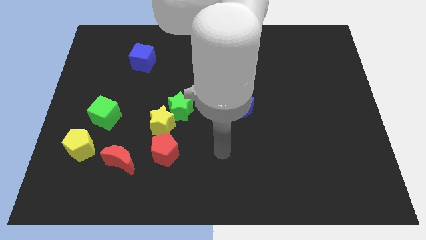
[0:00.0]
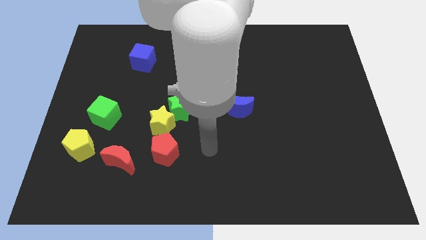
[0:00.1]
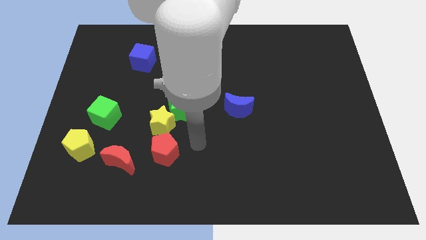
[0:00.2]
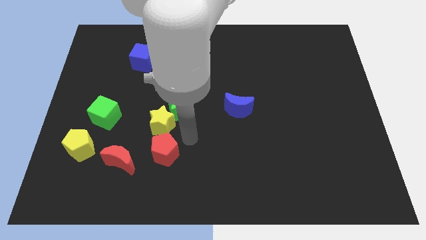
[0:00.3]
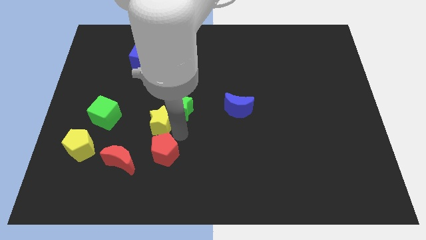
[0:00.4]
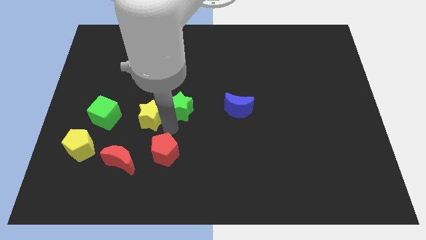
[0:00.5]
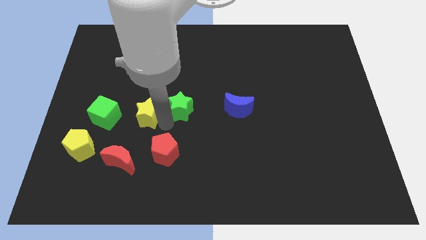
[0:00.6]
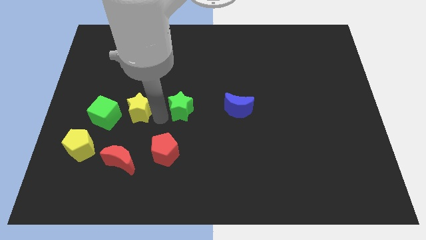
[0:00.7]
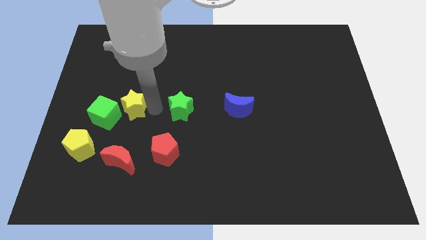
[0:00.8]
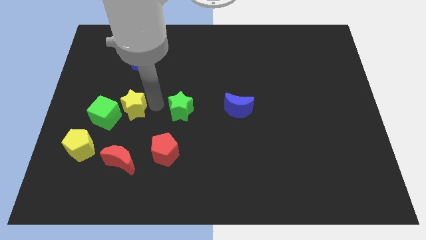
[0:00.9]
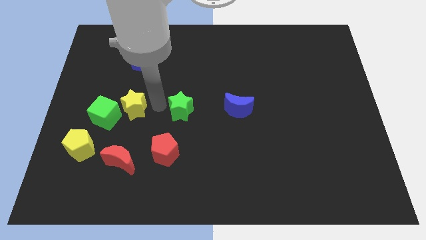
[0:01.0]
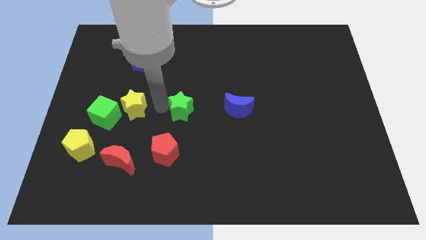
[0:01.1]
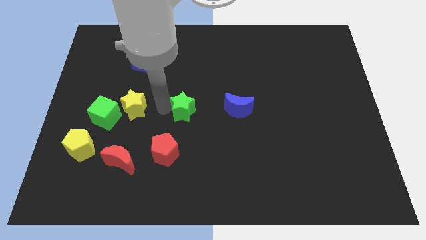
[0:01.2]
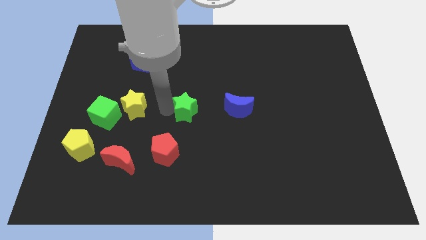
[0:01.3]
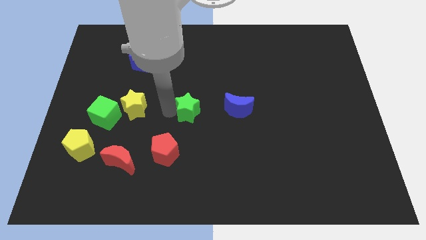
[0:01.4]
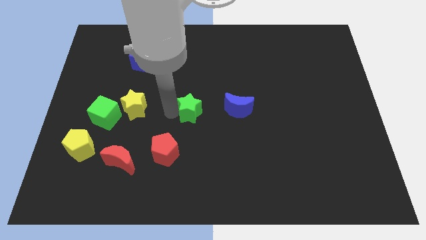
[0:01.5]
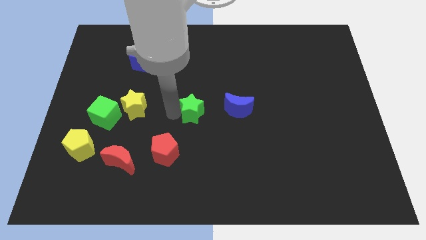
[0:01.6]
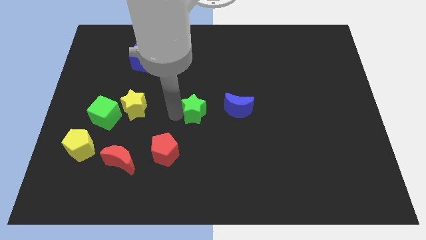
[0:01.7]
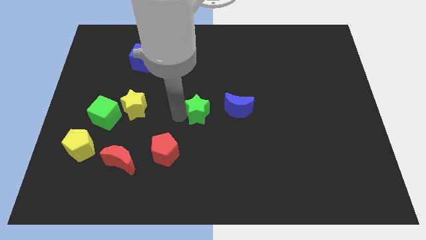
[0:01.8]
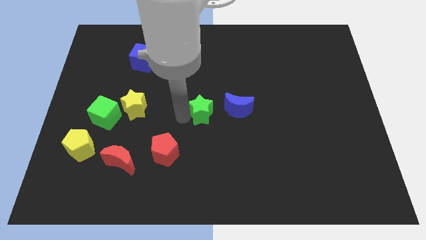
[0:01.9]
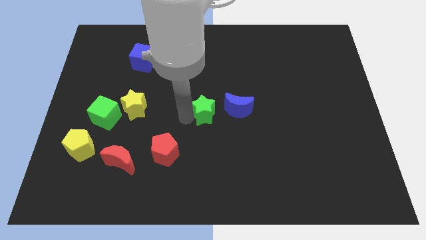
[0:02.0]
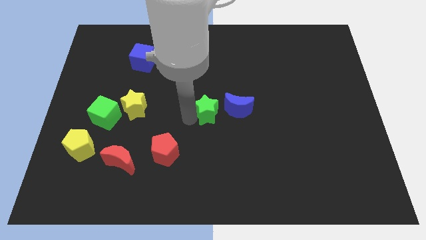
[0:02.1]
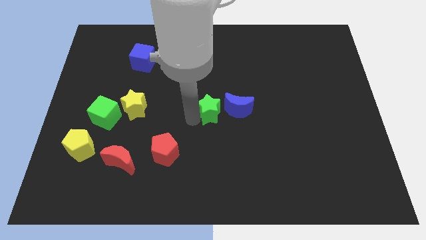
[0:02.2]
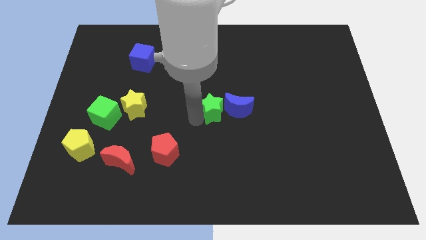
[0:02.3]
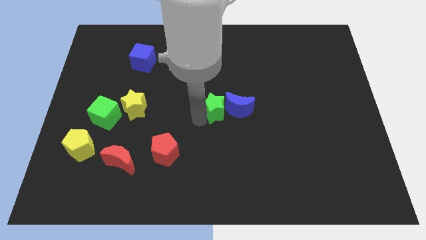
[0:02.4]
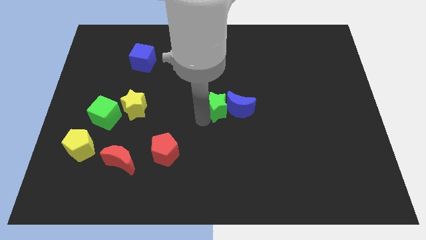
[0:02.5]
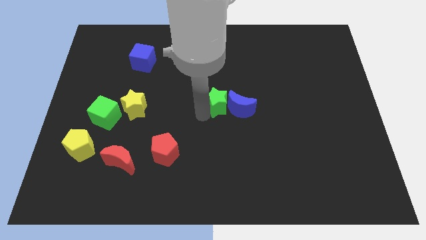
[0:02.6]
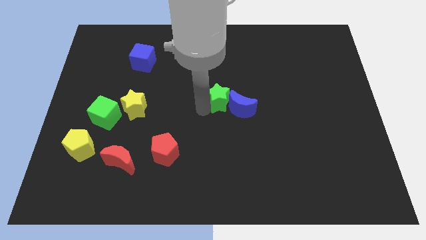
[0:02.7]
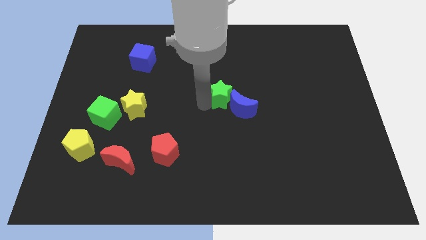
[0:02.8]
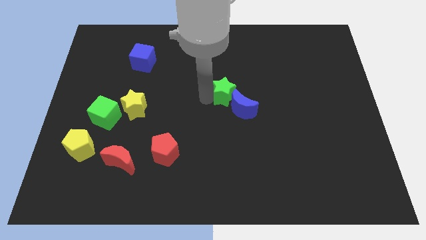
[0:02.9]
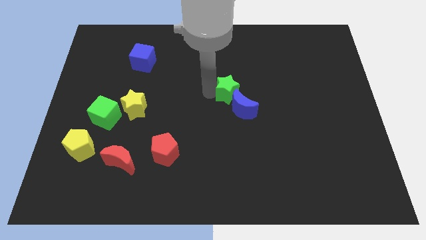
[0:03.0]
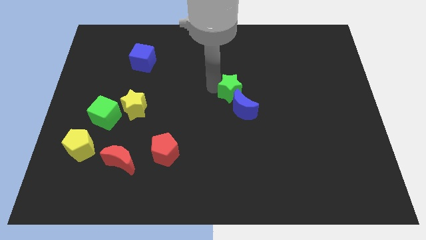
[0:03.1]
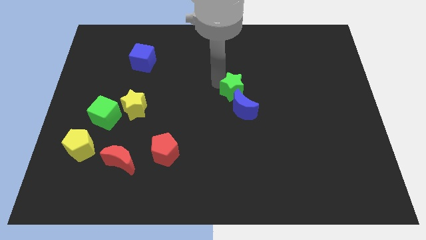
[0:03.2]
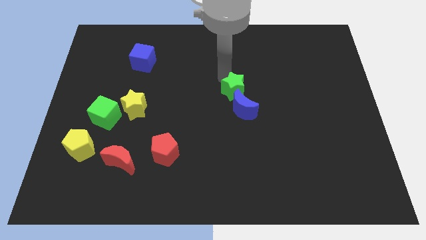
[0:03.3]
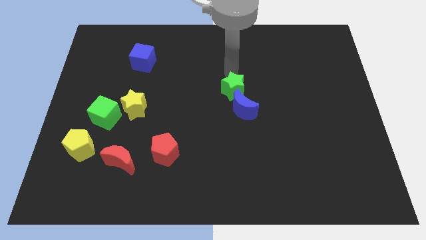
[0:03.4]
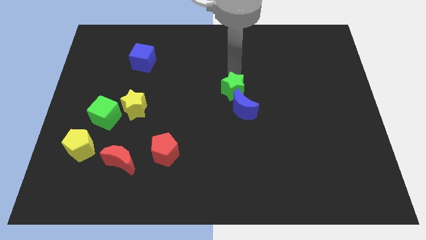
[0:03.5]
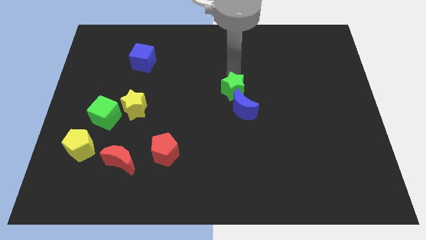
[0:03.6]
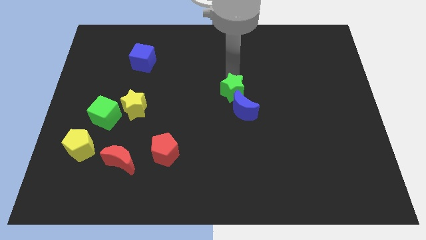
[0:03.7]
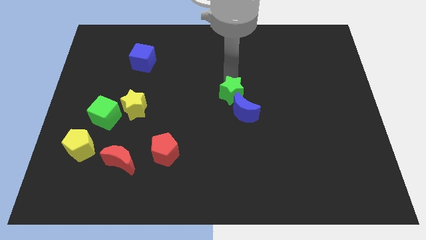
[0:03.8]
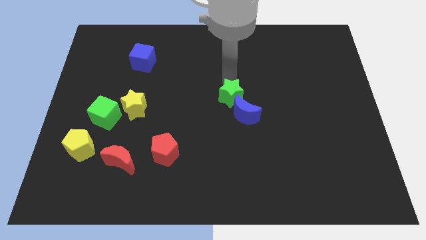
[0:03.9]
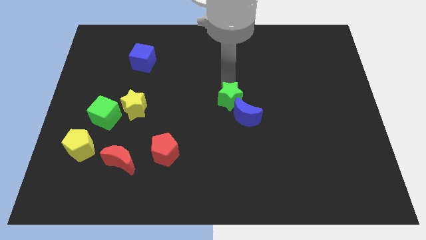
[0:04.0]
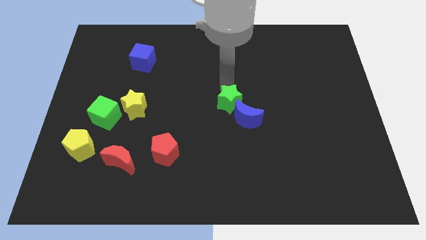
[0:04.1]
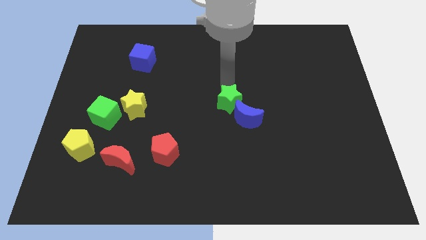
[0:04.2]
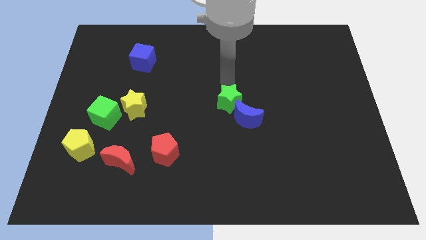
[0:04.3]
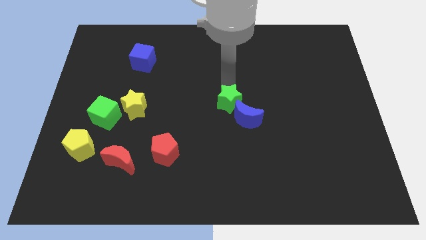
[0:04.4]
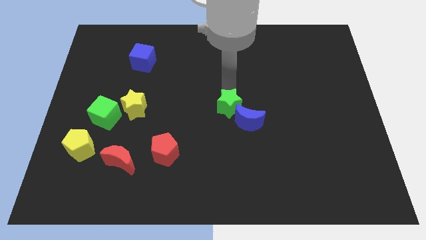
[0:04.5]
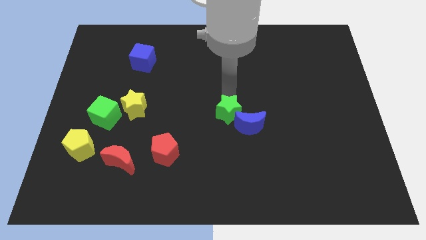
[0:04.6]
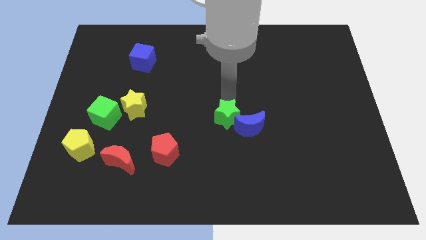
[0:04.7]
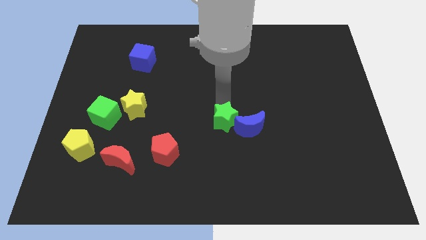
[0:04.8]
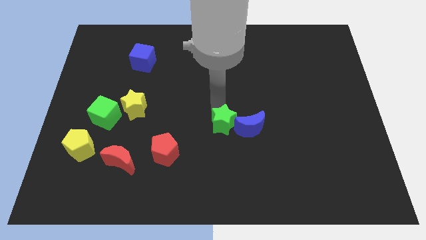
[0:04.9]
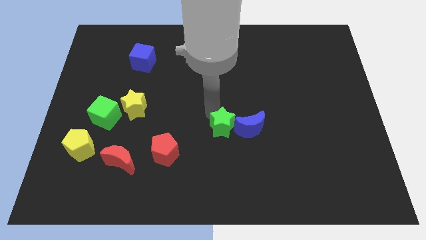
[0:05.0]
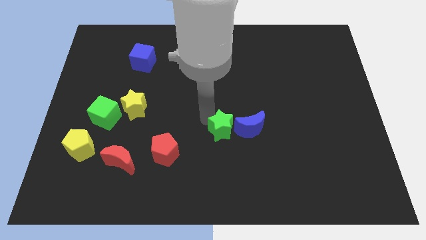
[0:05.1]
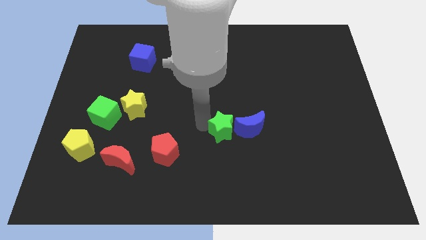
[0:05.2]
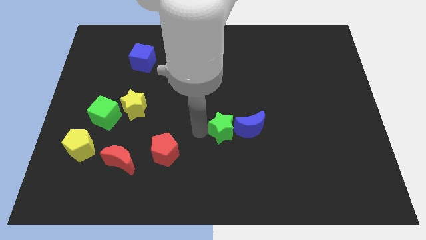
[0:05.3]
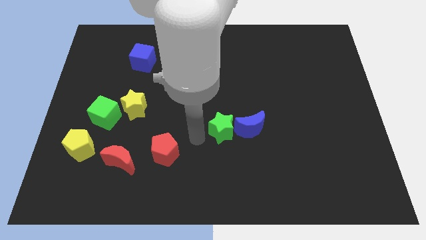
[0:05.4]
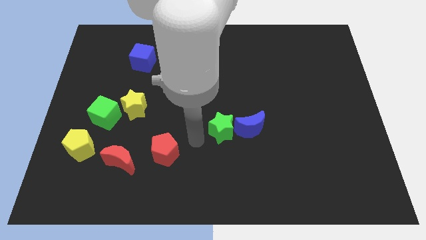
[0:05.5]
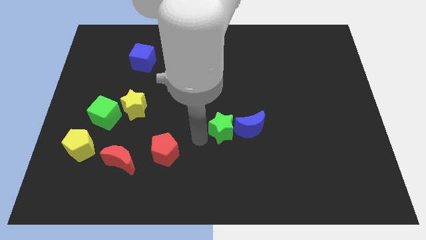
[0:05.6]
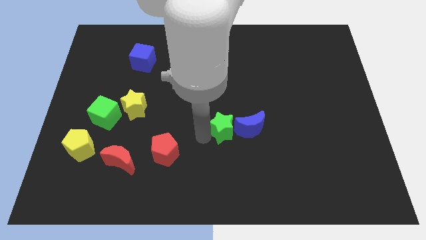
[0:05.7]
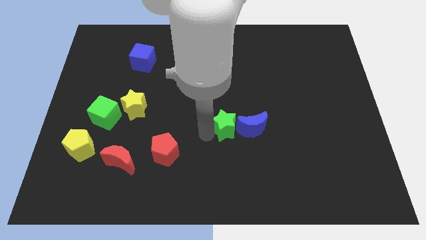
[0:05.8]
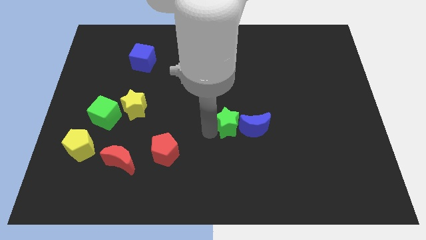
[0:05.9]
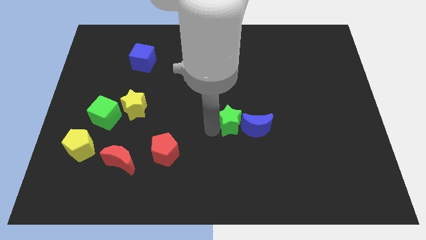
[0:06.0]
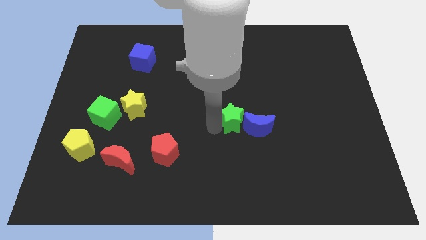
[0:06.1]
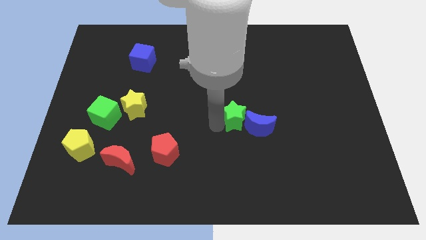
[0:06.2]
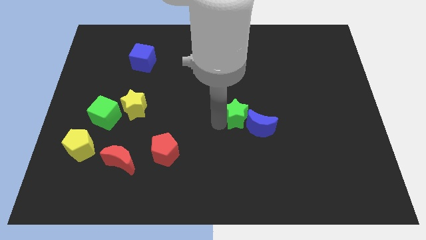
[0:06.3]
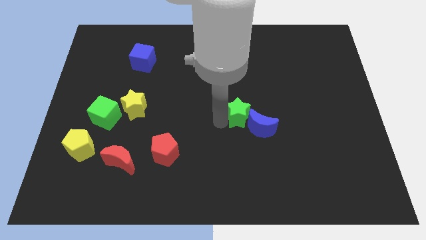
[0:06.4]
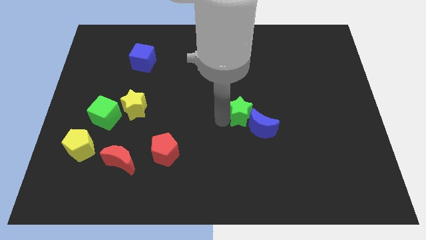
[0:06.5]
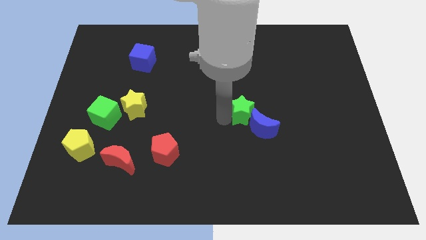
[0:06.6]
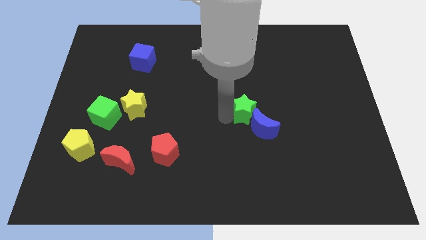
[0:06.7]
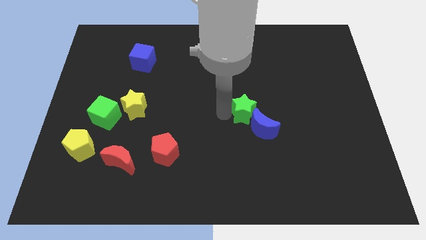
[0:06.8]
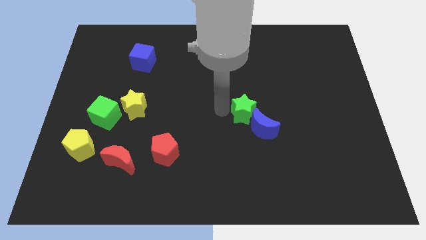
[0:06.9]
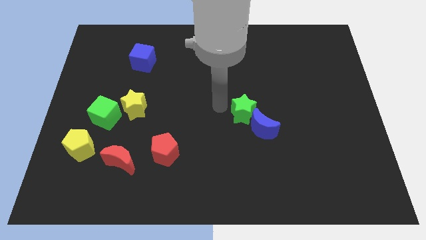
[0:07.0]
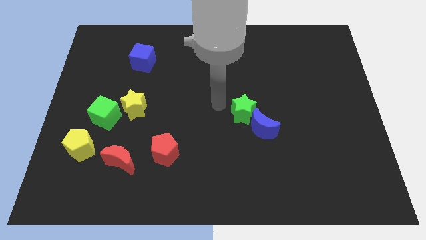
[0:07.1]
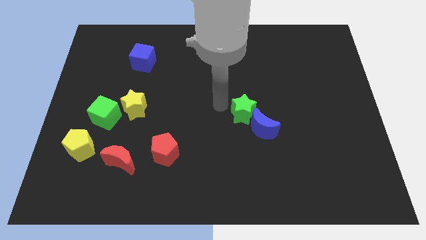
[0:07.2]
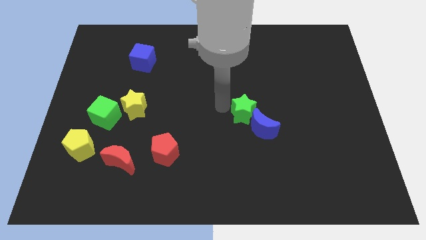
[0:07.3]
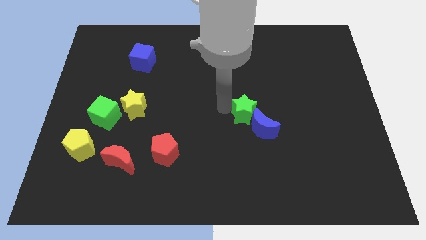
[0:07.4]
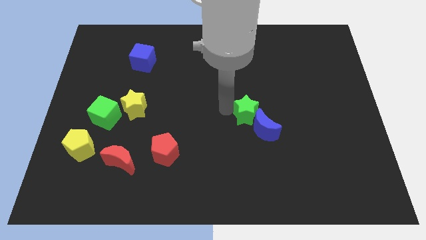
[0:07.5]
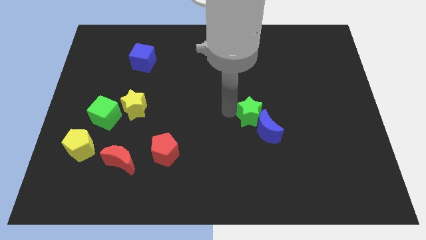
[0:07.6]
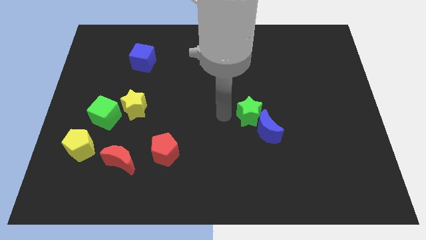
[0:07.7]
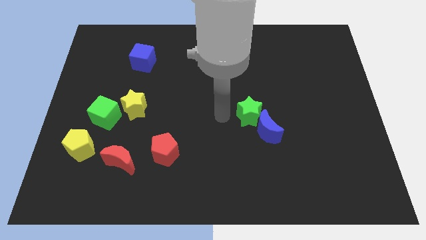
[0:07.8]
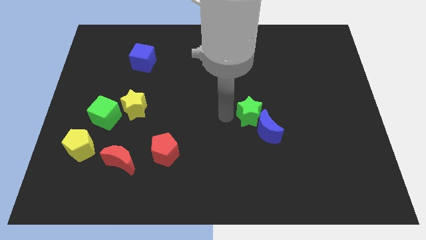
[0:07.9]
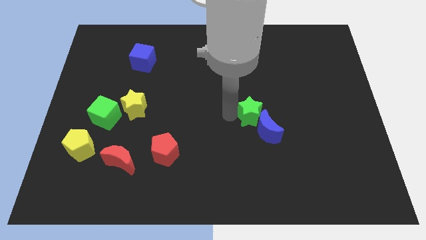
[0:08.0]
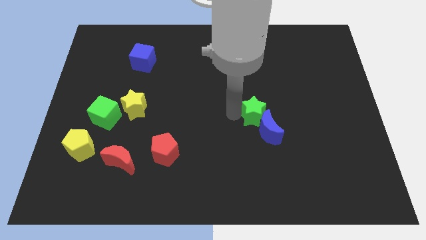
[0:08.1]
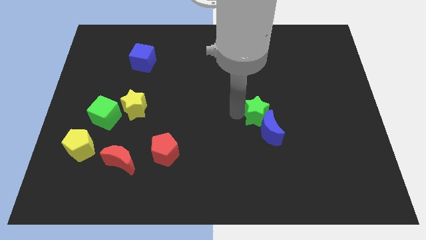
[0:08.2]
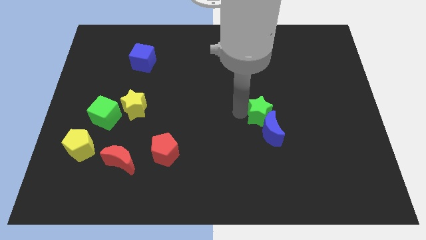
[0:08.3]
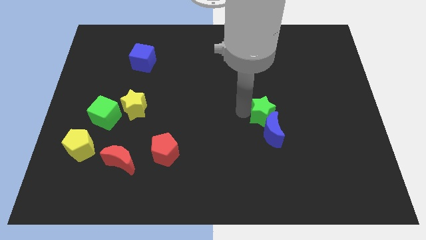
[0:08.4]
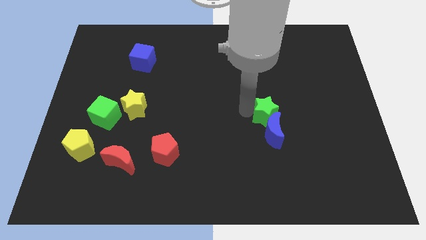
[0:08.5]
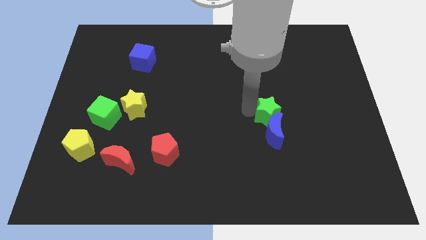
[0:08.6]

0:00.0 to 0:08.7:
move the green star right
